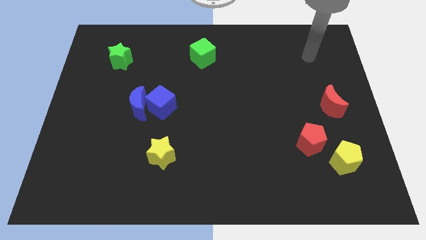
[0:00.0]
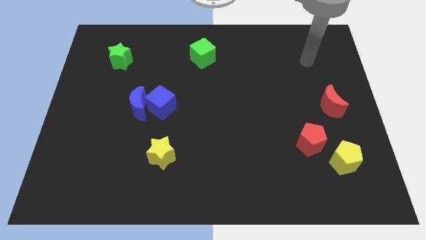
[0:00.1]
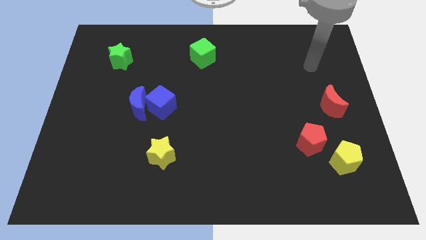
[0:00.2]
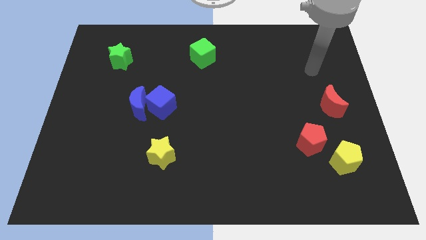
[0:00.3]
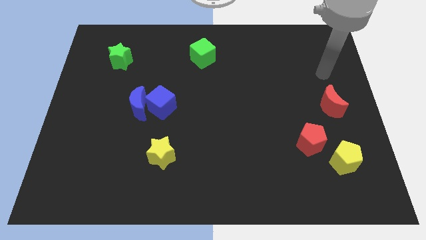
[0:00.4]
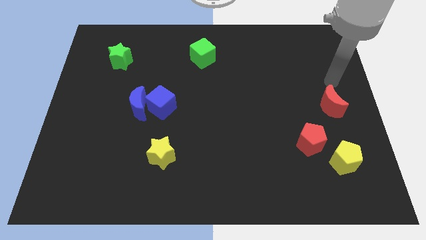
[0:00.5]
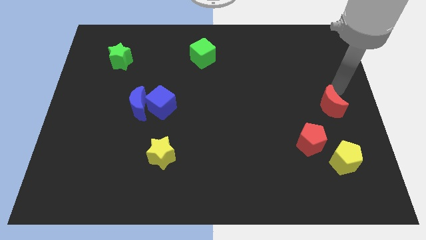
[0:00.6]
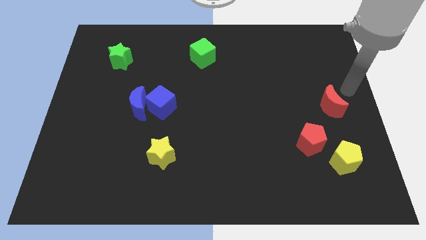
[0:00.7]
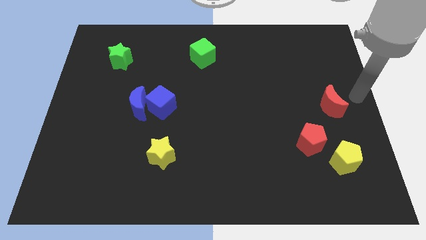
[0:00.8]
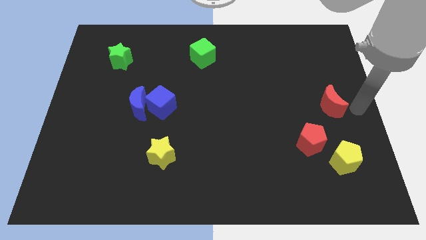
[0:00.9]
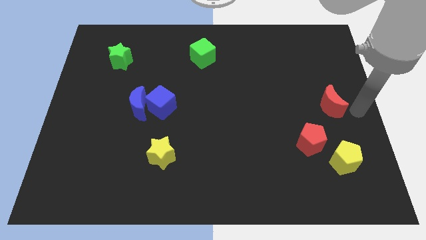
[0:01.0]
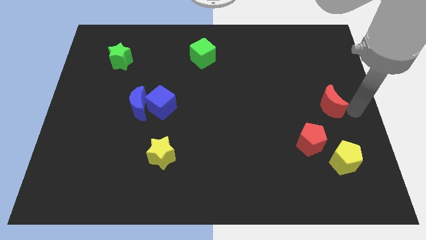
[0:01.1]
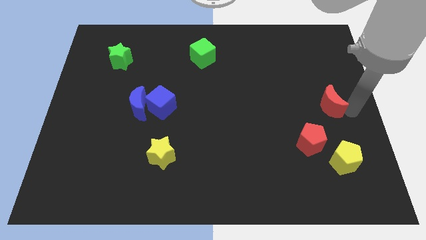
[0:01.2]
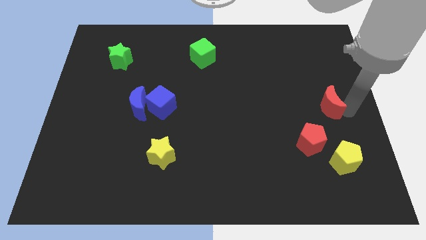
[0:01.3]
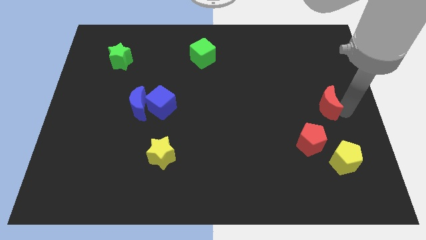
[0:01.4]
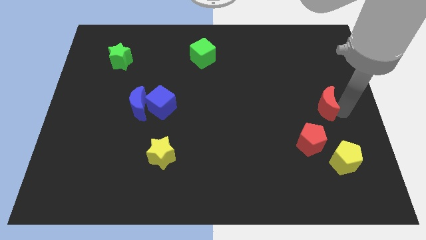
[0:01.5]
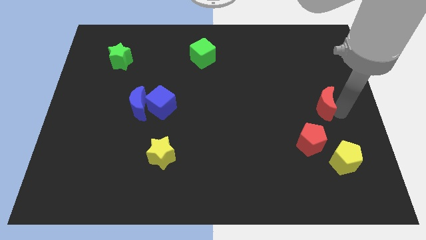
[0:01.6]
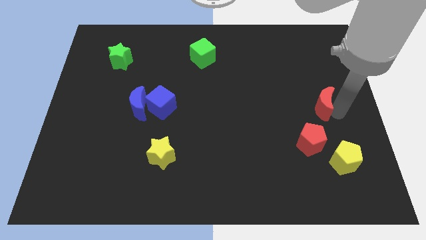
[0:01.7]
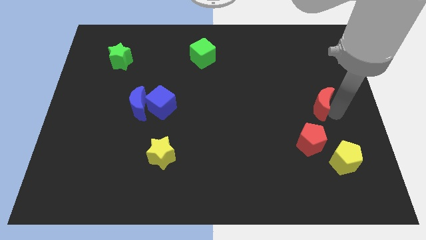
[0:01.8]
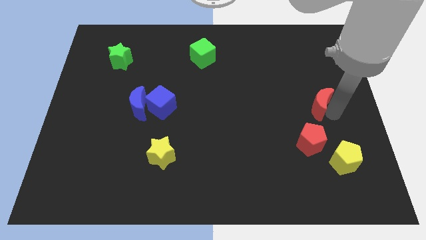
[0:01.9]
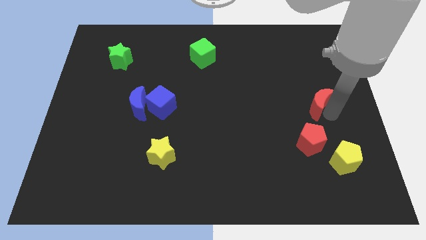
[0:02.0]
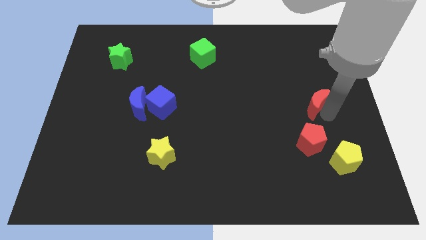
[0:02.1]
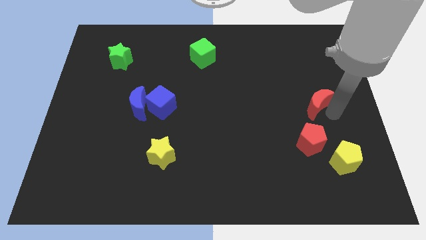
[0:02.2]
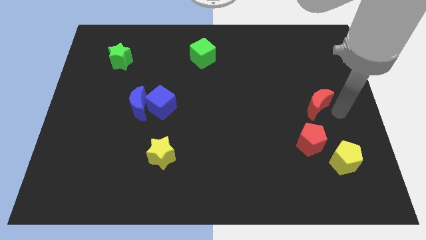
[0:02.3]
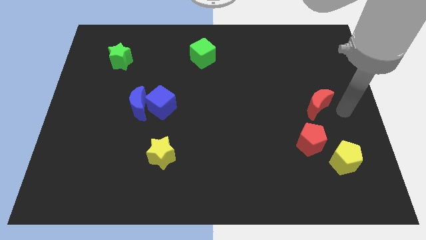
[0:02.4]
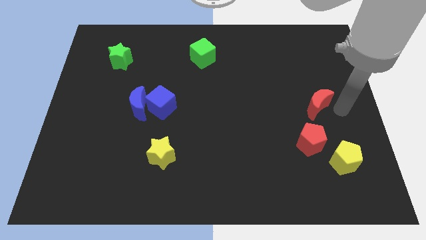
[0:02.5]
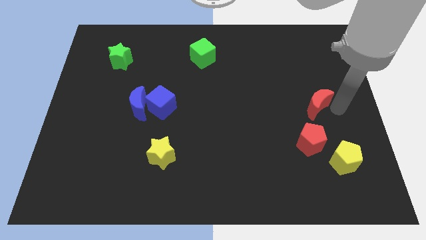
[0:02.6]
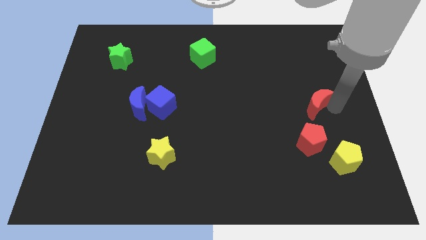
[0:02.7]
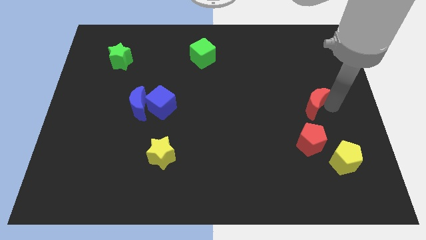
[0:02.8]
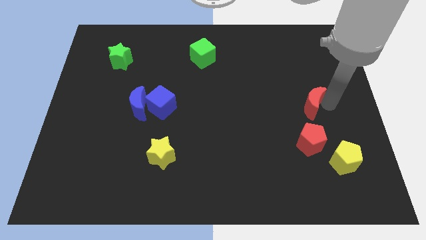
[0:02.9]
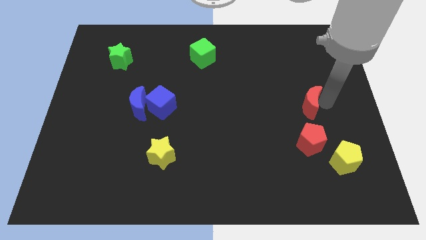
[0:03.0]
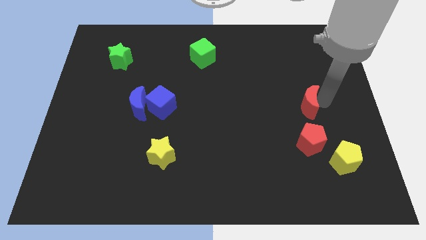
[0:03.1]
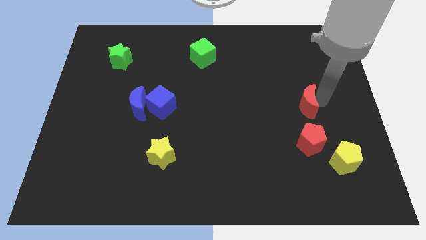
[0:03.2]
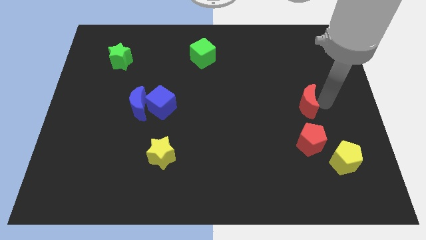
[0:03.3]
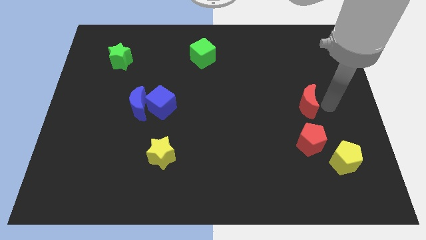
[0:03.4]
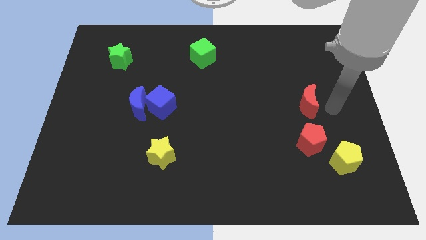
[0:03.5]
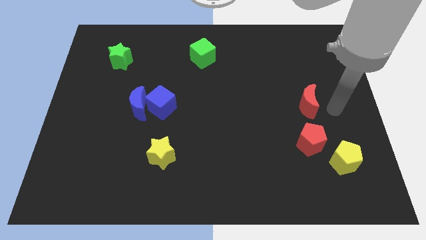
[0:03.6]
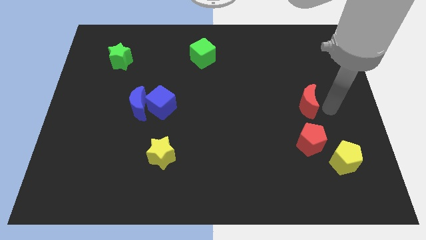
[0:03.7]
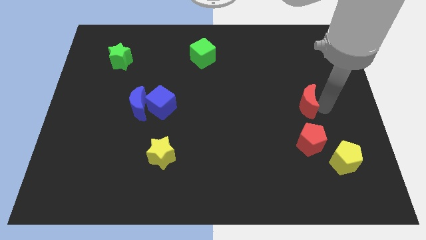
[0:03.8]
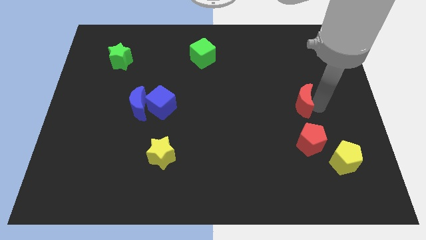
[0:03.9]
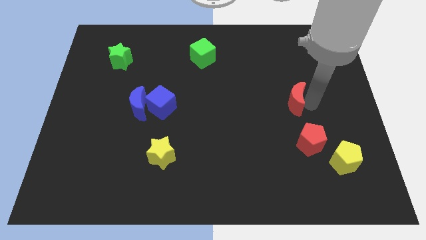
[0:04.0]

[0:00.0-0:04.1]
push the red moon a little left

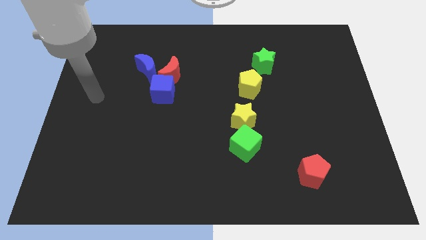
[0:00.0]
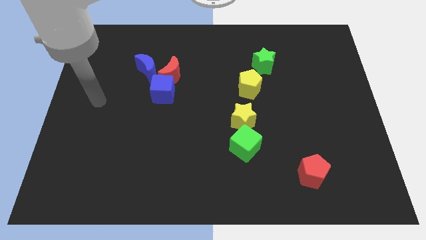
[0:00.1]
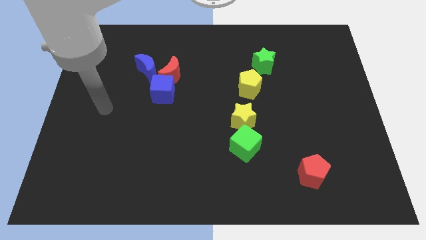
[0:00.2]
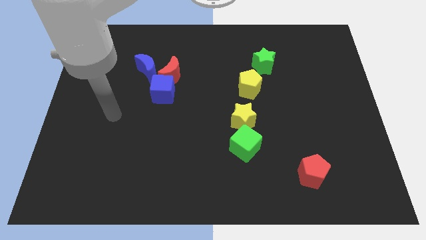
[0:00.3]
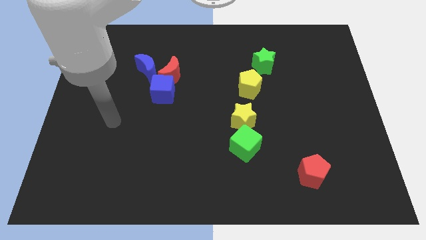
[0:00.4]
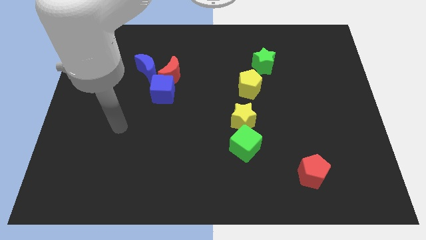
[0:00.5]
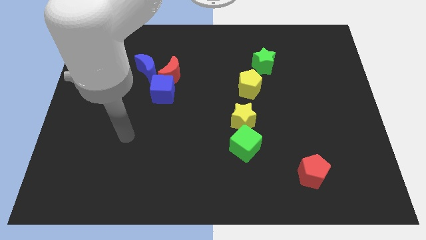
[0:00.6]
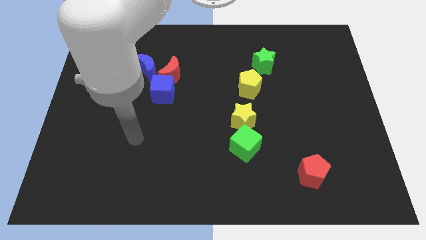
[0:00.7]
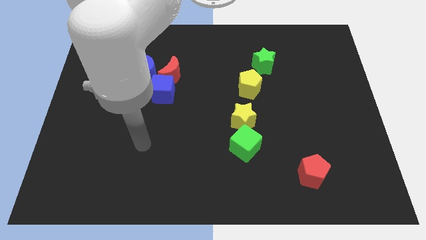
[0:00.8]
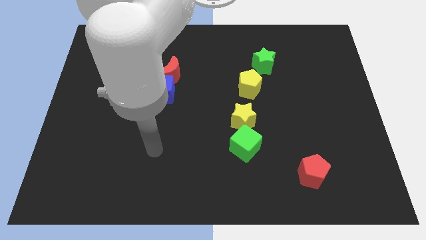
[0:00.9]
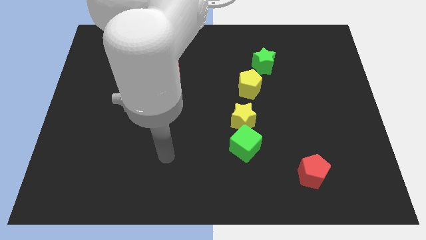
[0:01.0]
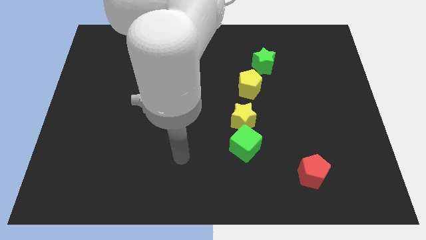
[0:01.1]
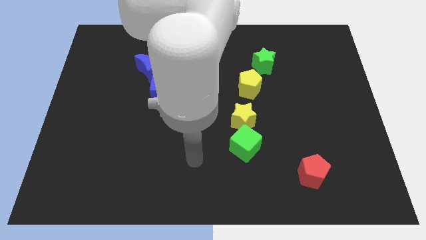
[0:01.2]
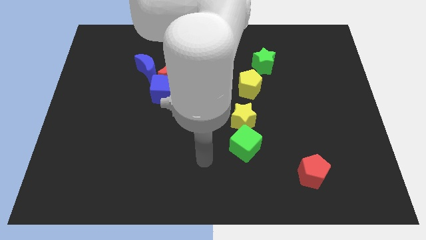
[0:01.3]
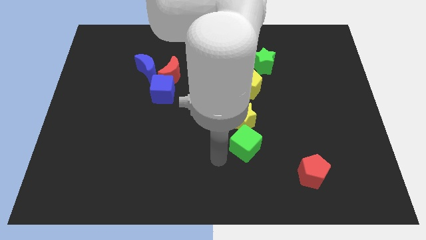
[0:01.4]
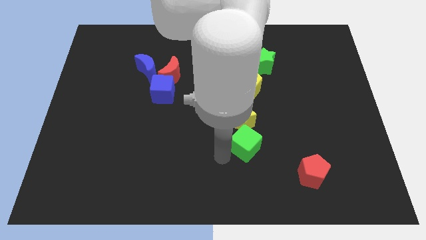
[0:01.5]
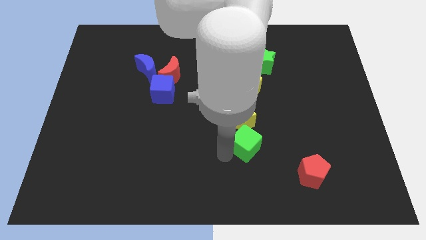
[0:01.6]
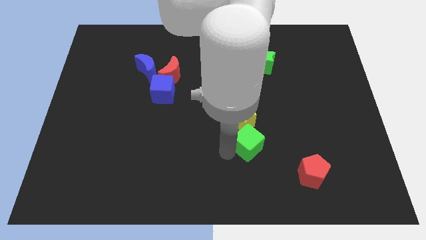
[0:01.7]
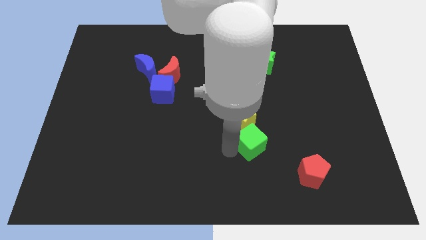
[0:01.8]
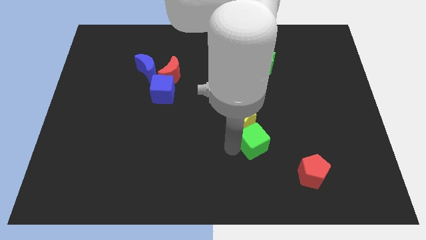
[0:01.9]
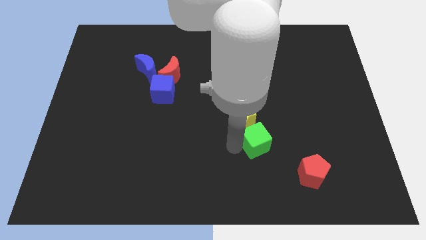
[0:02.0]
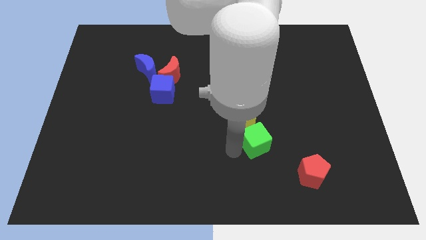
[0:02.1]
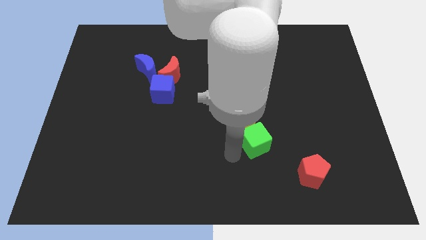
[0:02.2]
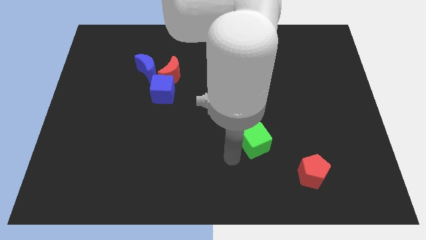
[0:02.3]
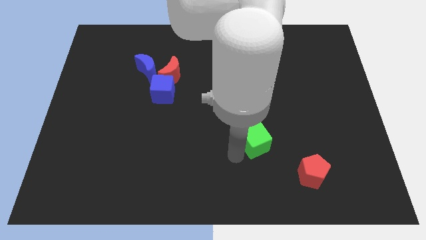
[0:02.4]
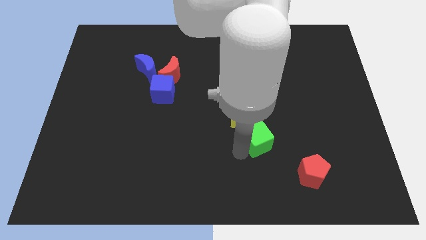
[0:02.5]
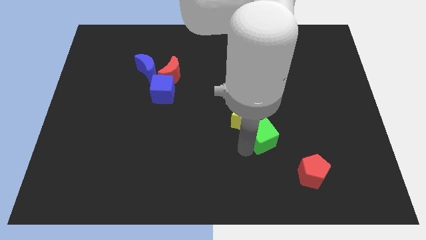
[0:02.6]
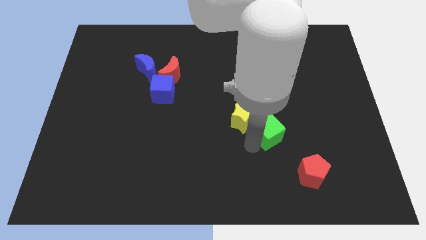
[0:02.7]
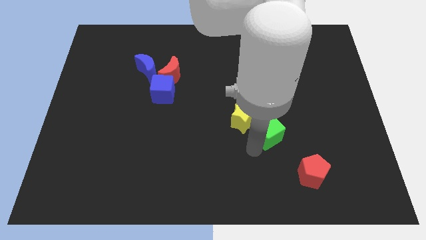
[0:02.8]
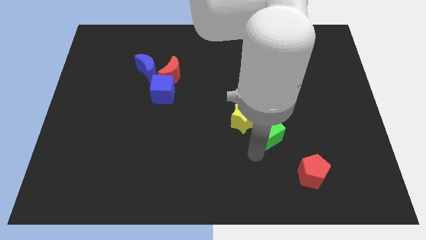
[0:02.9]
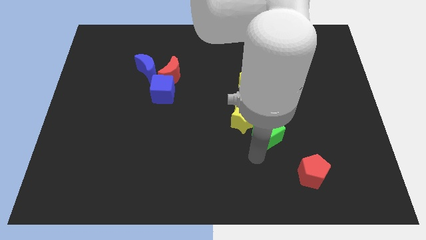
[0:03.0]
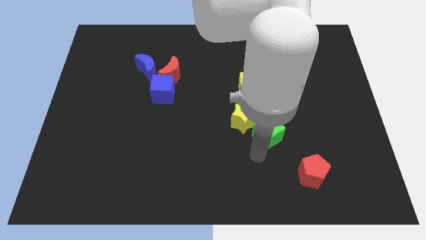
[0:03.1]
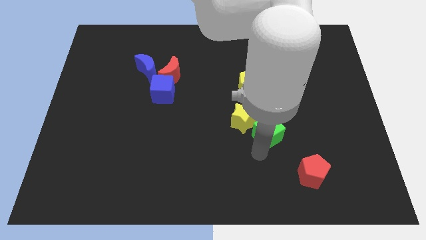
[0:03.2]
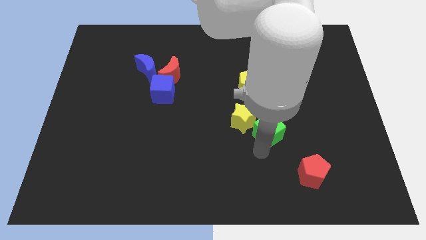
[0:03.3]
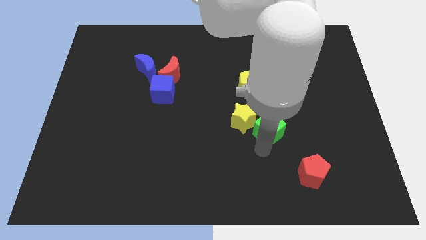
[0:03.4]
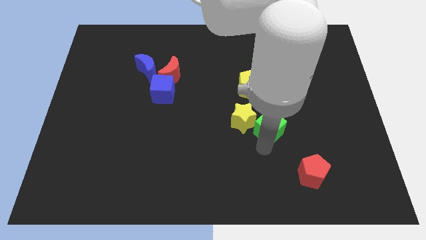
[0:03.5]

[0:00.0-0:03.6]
move the green cube slightly up and right diagonally

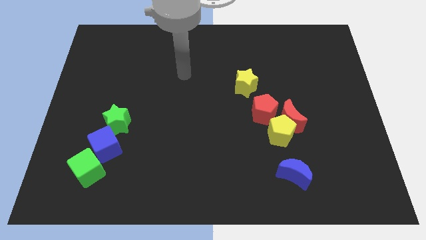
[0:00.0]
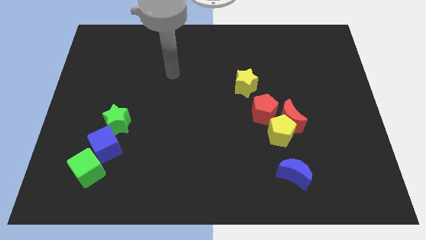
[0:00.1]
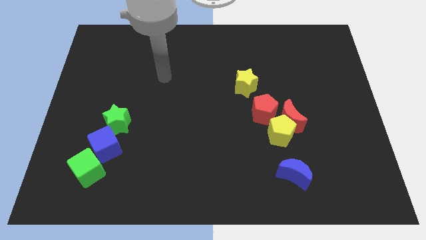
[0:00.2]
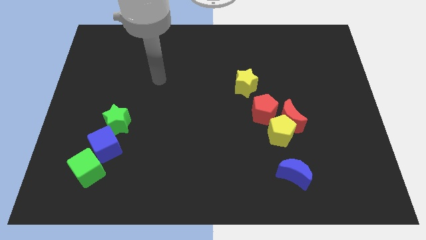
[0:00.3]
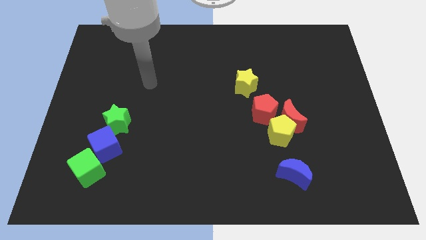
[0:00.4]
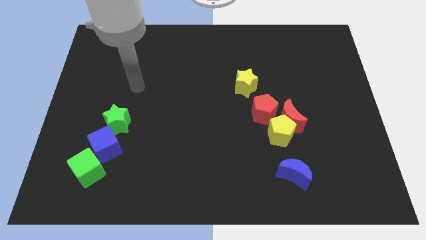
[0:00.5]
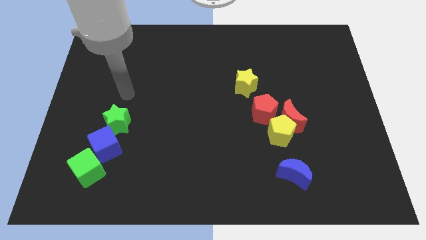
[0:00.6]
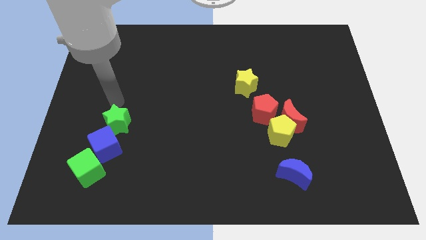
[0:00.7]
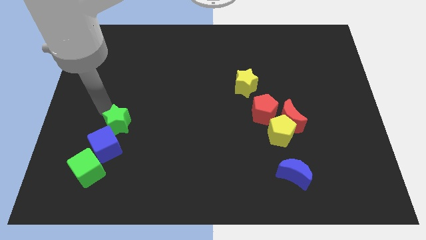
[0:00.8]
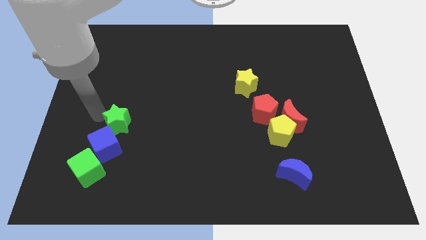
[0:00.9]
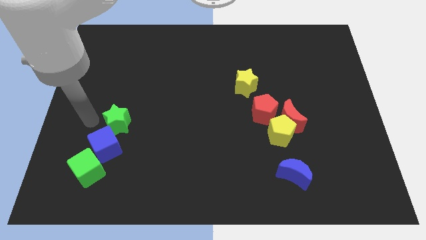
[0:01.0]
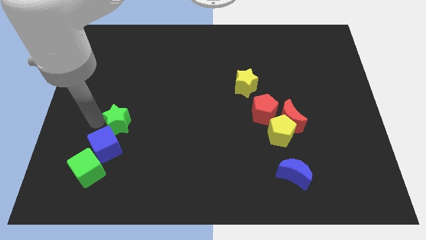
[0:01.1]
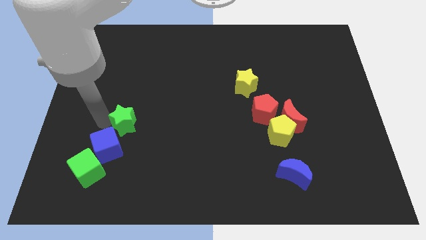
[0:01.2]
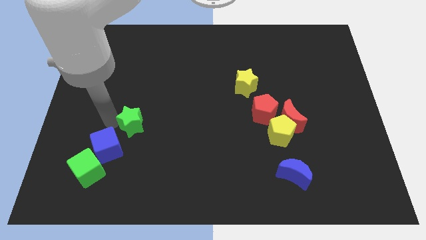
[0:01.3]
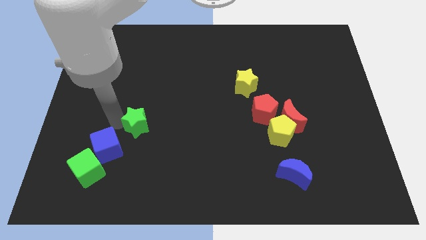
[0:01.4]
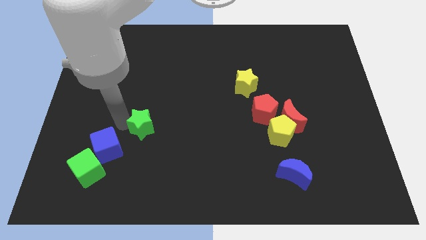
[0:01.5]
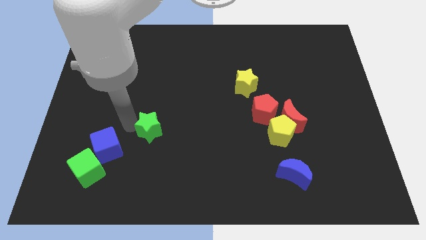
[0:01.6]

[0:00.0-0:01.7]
slightly slide the green star to the right
